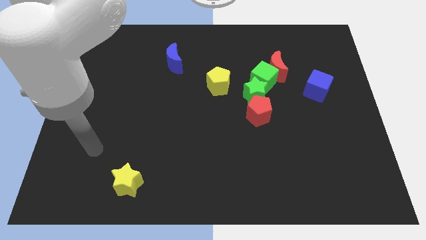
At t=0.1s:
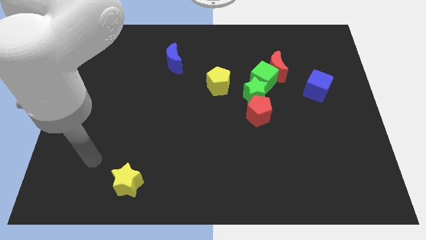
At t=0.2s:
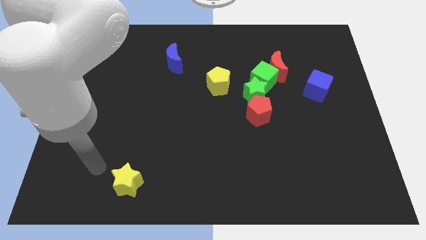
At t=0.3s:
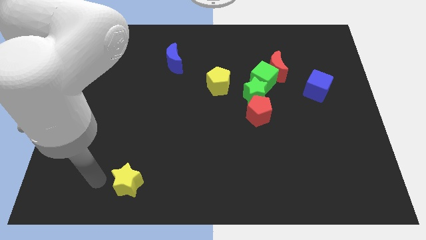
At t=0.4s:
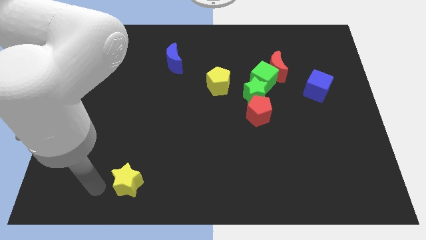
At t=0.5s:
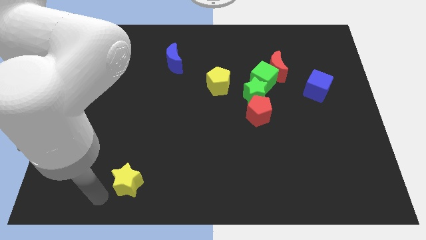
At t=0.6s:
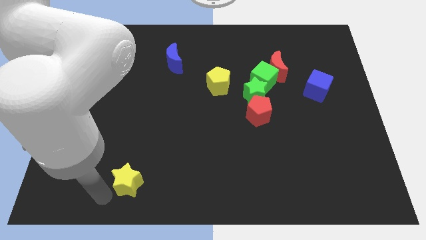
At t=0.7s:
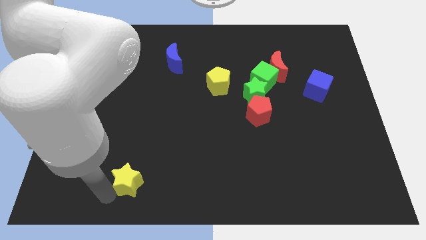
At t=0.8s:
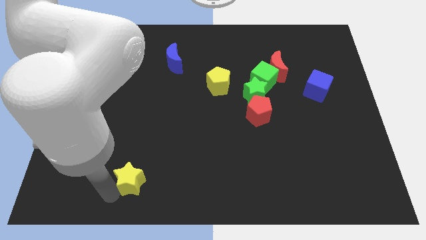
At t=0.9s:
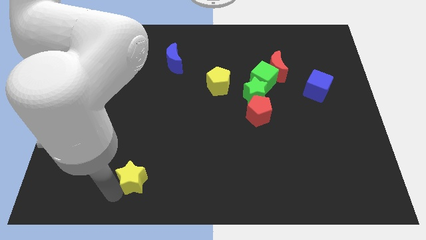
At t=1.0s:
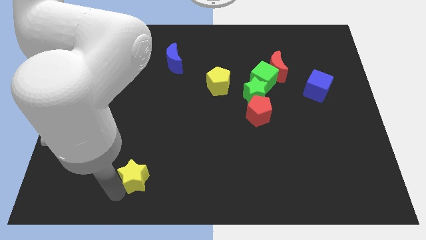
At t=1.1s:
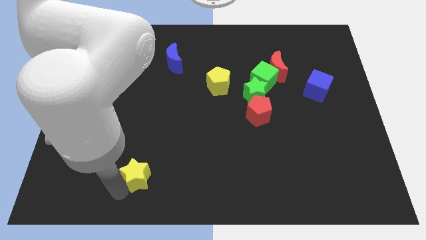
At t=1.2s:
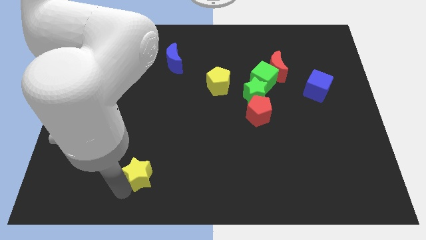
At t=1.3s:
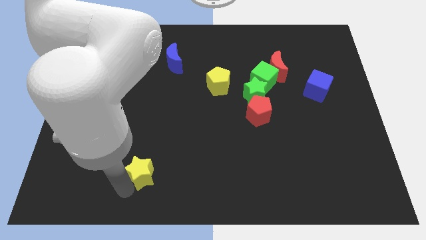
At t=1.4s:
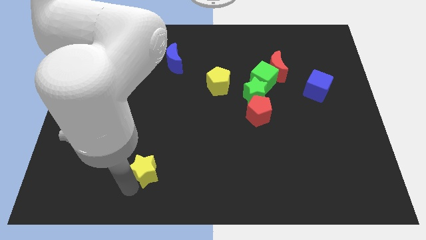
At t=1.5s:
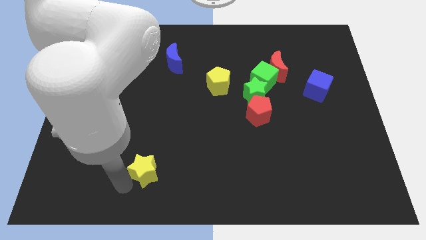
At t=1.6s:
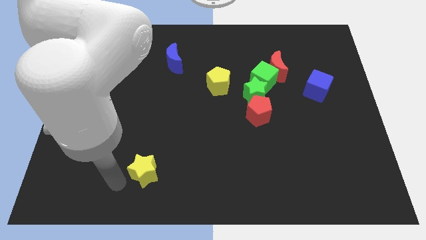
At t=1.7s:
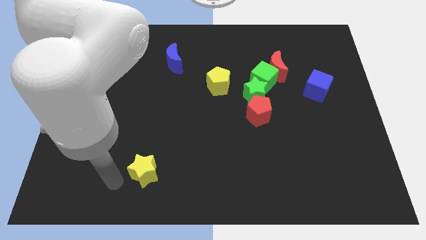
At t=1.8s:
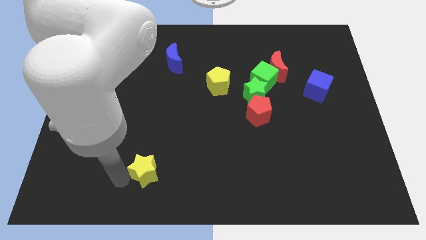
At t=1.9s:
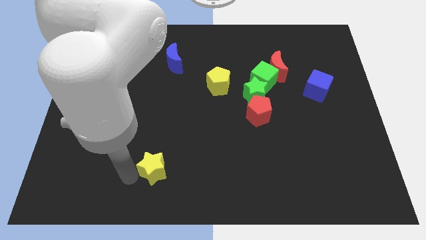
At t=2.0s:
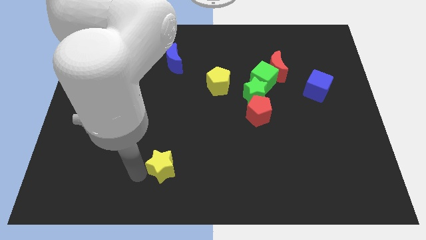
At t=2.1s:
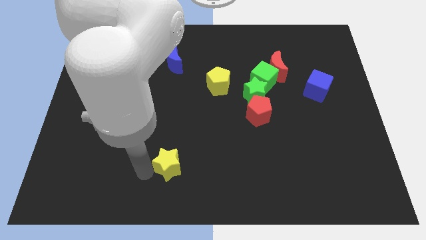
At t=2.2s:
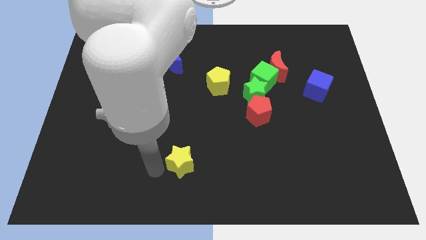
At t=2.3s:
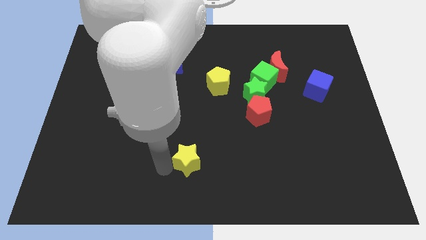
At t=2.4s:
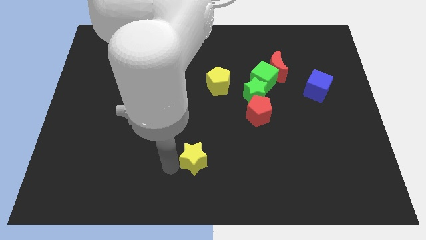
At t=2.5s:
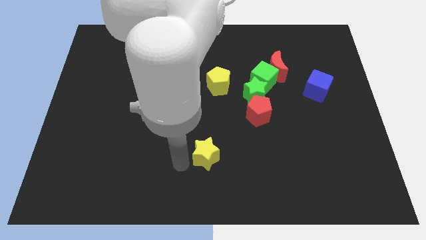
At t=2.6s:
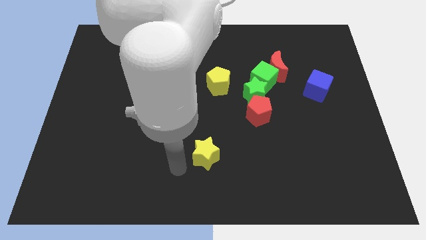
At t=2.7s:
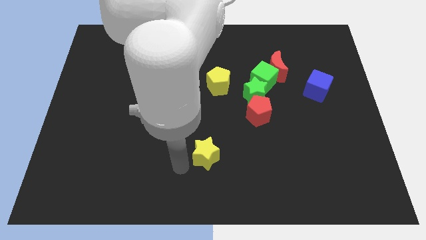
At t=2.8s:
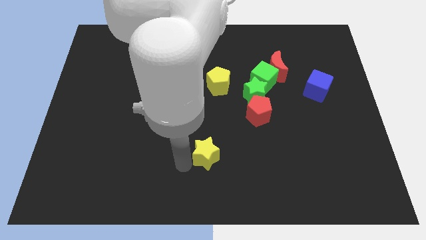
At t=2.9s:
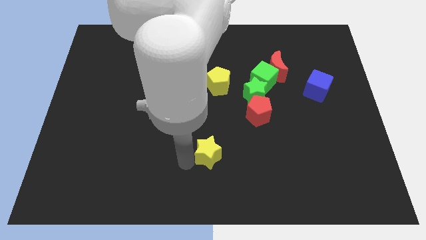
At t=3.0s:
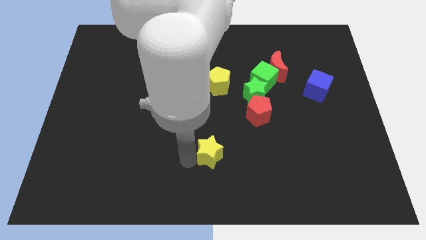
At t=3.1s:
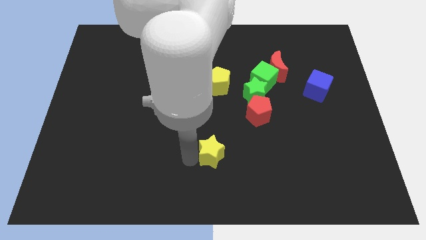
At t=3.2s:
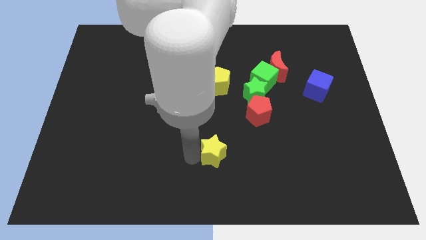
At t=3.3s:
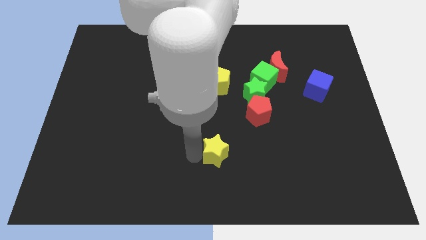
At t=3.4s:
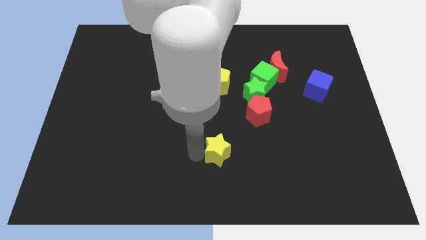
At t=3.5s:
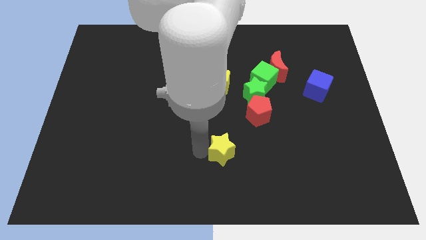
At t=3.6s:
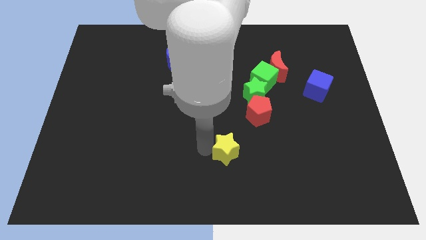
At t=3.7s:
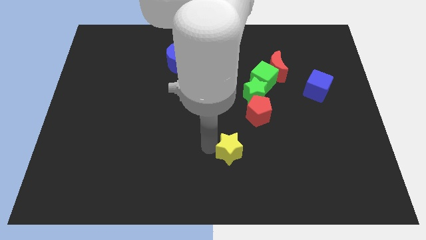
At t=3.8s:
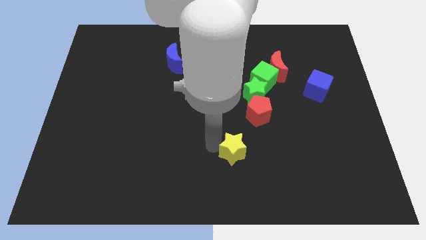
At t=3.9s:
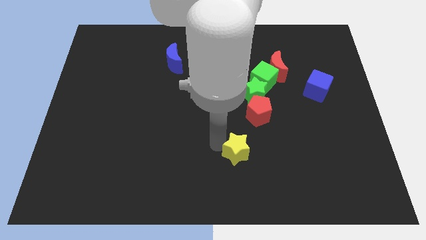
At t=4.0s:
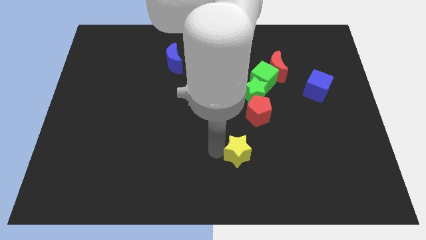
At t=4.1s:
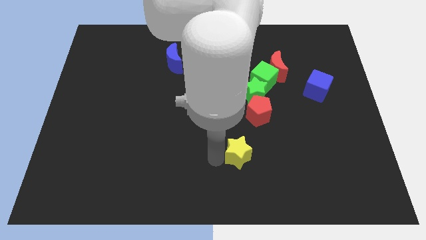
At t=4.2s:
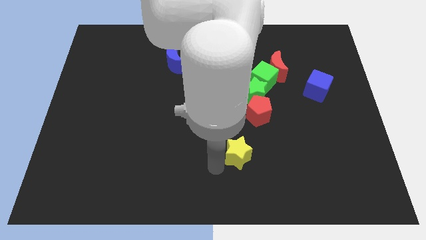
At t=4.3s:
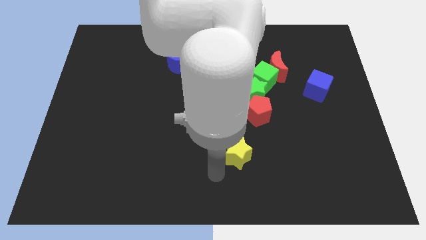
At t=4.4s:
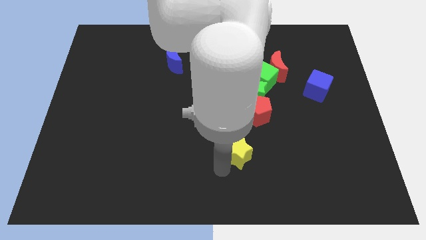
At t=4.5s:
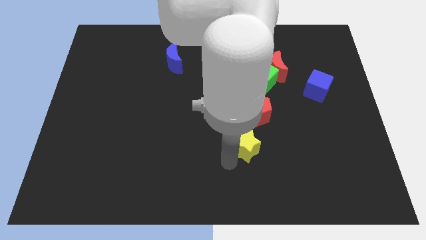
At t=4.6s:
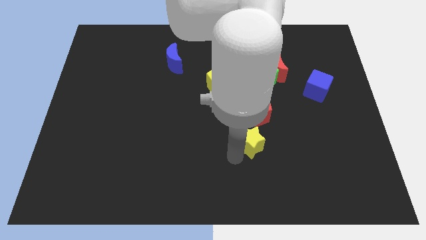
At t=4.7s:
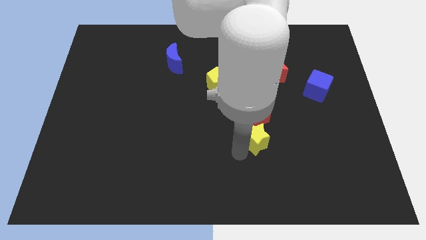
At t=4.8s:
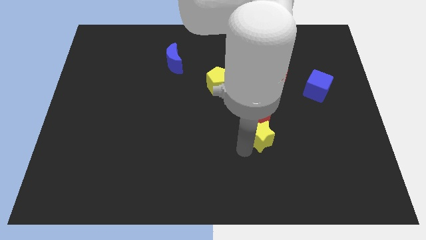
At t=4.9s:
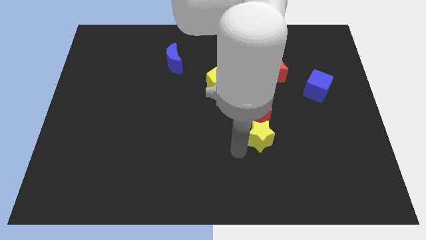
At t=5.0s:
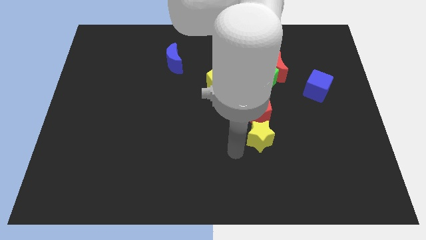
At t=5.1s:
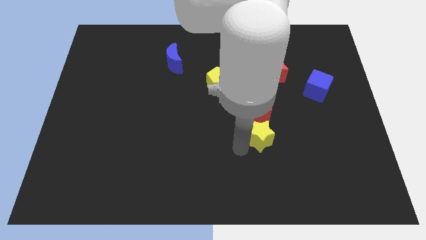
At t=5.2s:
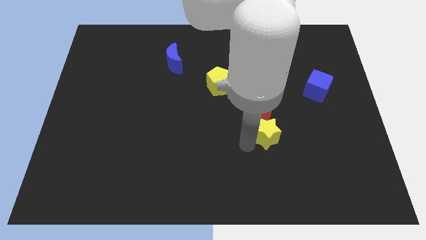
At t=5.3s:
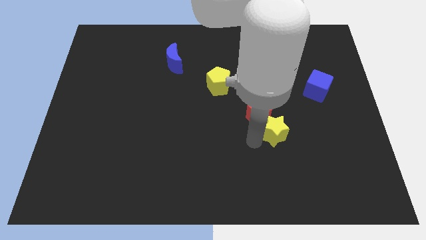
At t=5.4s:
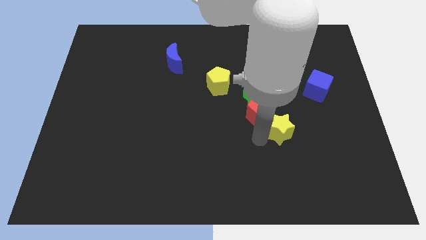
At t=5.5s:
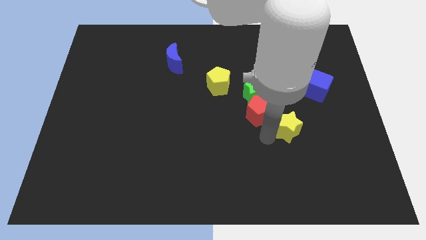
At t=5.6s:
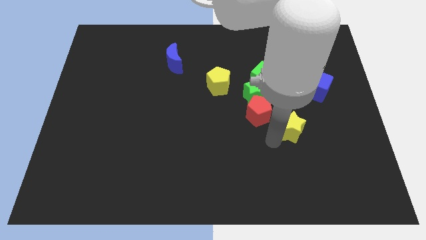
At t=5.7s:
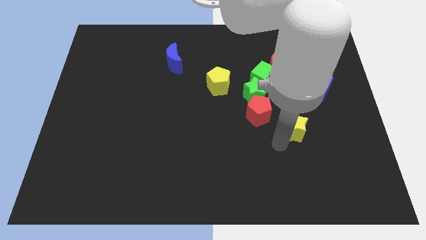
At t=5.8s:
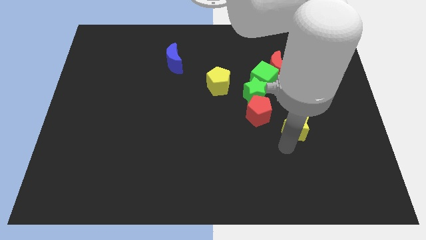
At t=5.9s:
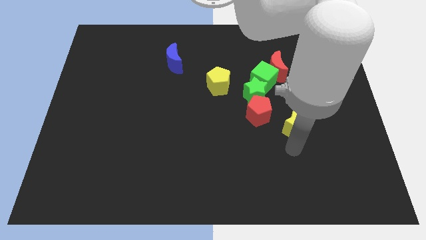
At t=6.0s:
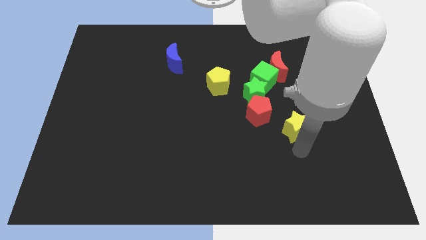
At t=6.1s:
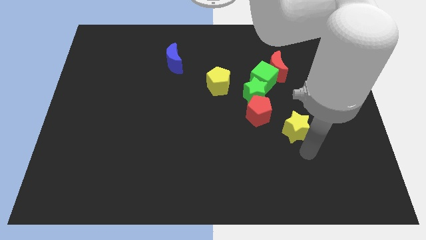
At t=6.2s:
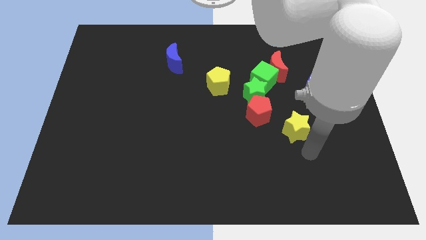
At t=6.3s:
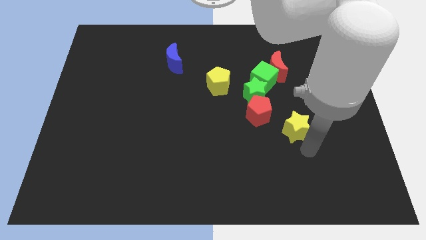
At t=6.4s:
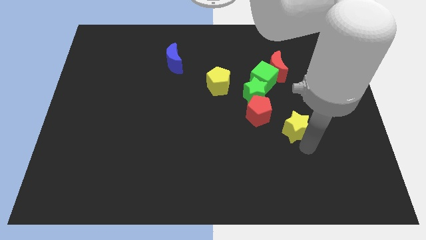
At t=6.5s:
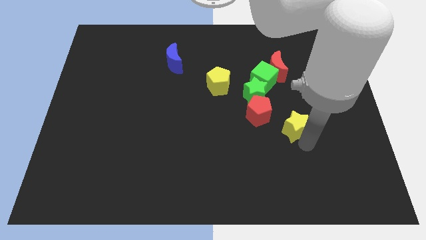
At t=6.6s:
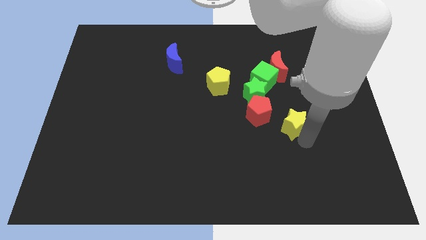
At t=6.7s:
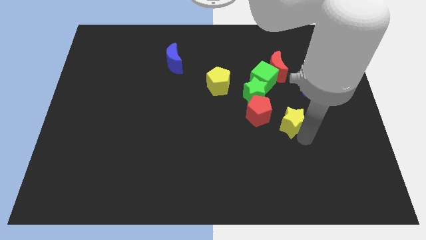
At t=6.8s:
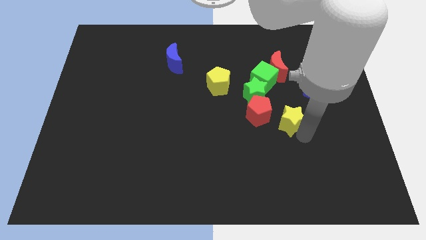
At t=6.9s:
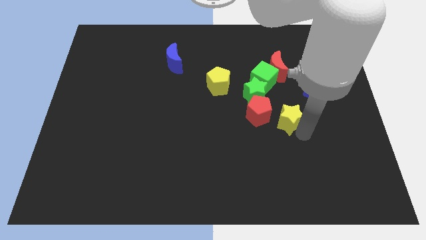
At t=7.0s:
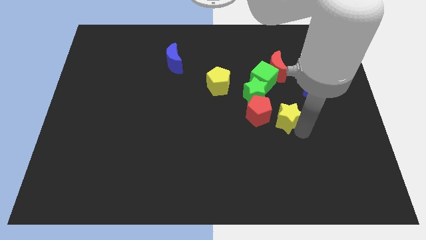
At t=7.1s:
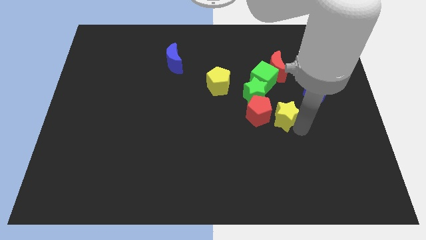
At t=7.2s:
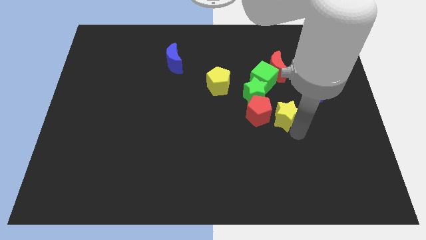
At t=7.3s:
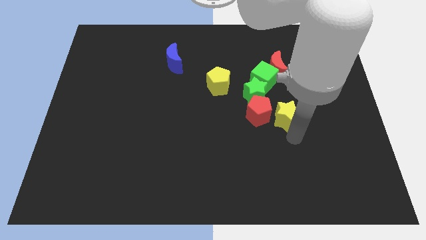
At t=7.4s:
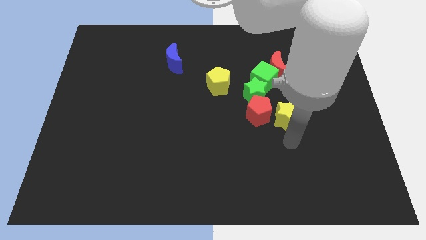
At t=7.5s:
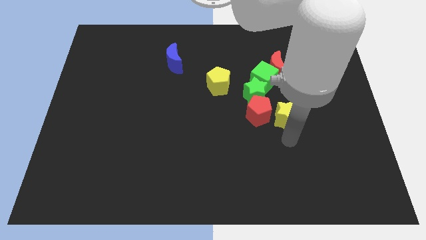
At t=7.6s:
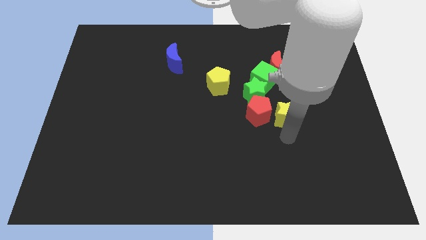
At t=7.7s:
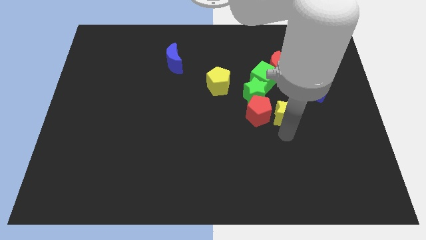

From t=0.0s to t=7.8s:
put the yellow star to the top right side of the red pentagon
